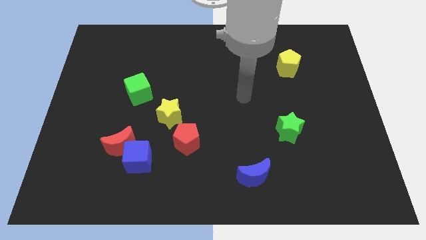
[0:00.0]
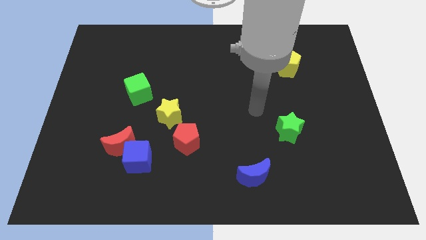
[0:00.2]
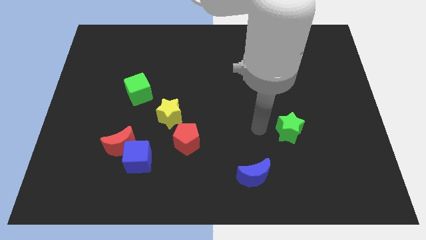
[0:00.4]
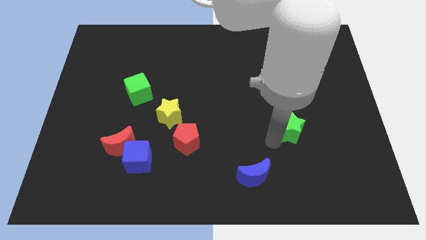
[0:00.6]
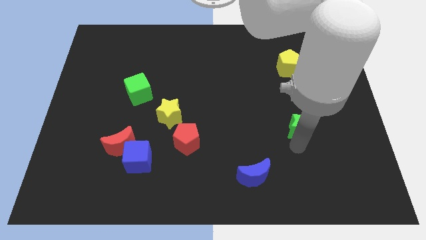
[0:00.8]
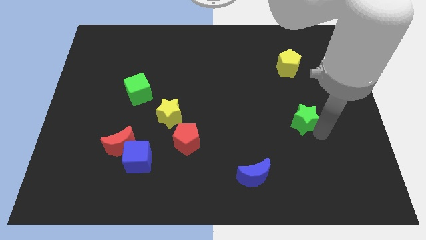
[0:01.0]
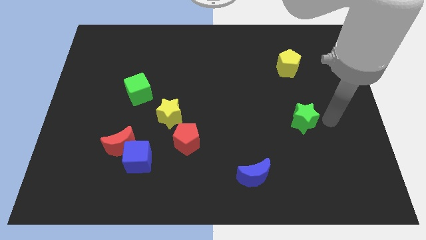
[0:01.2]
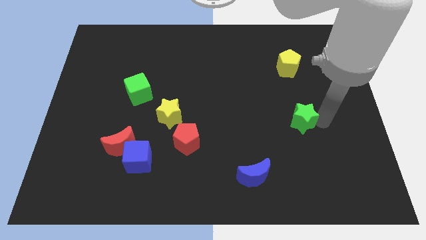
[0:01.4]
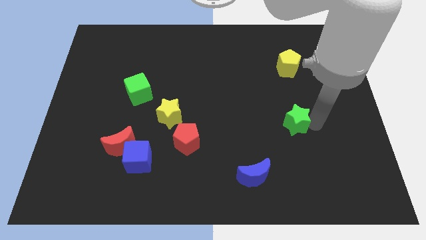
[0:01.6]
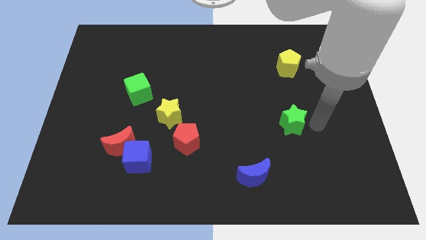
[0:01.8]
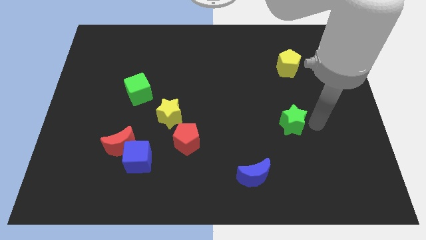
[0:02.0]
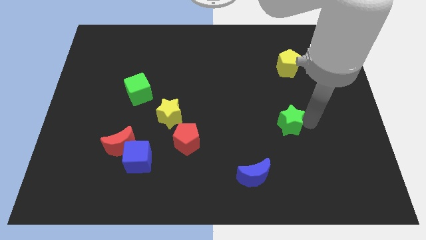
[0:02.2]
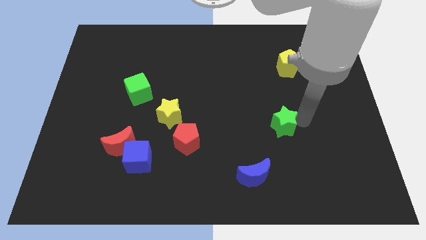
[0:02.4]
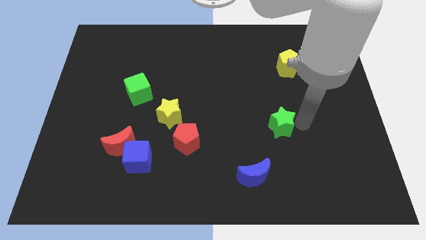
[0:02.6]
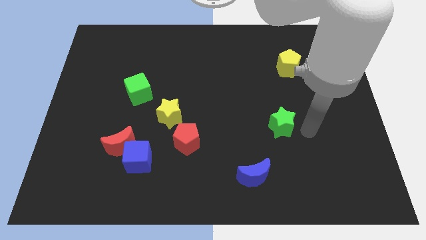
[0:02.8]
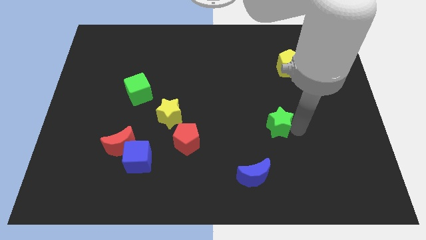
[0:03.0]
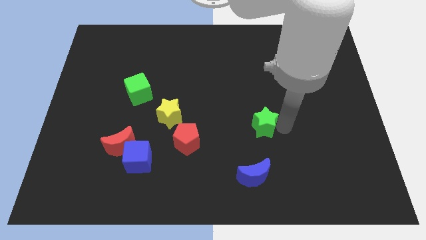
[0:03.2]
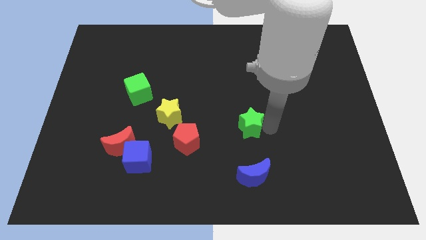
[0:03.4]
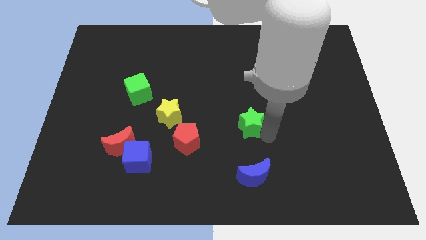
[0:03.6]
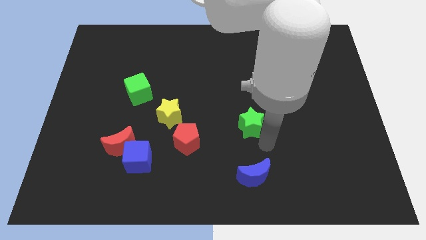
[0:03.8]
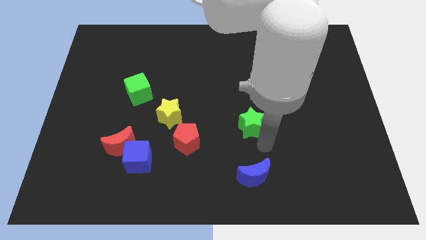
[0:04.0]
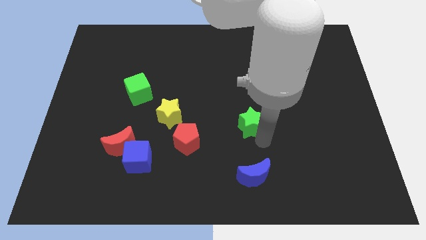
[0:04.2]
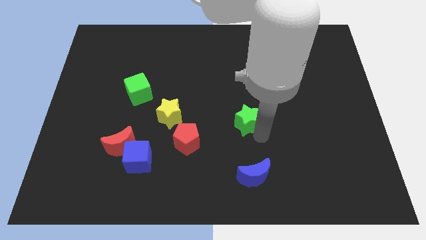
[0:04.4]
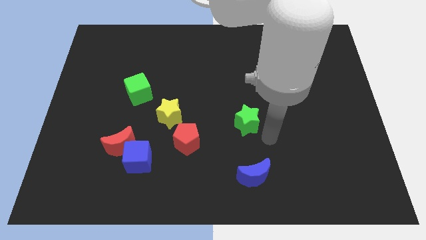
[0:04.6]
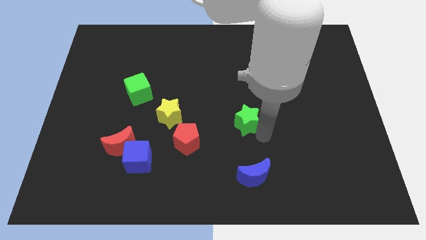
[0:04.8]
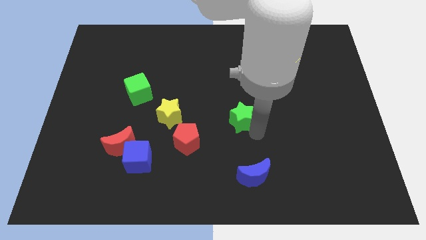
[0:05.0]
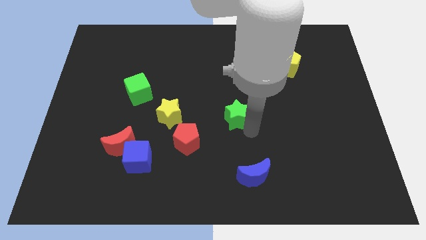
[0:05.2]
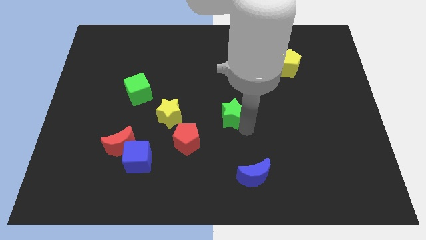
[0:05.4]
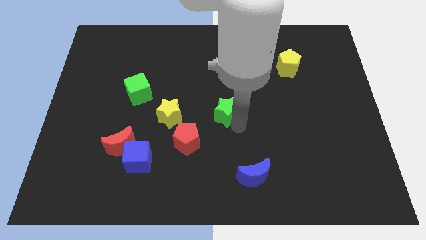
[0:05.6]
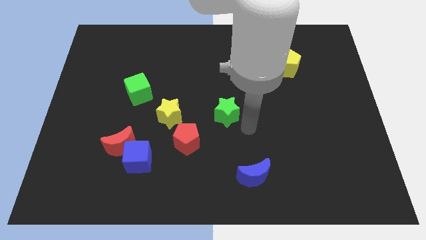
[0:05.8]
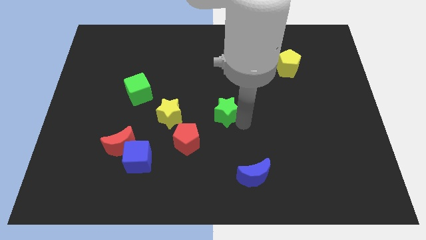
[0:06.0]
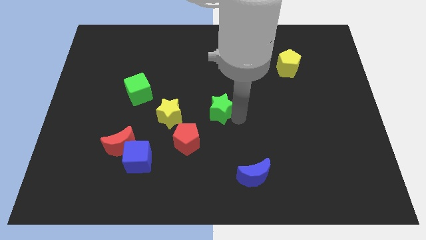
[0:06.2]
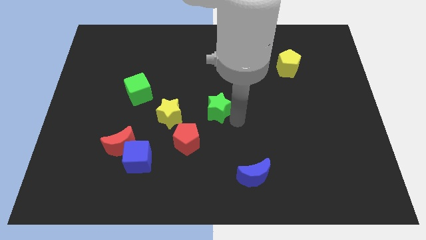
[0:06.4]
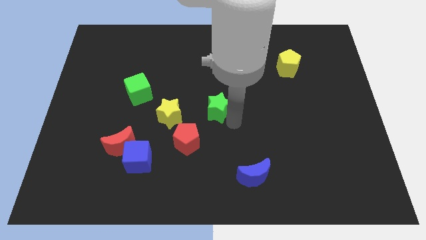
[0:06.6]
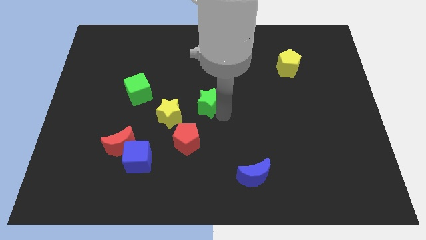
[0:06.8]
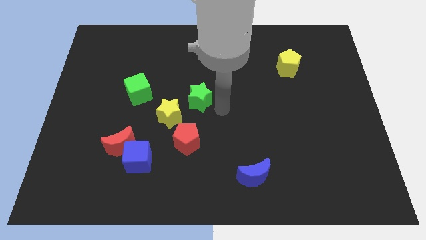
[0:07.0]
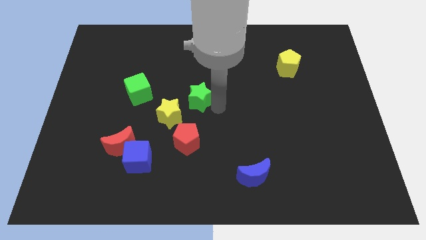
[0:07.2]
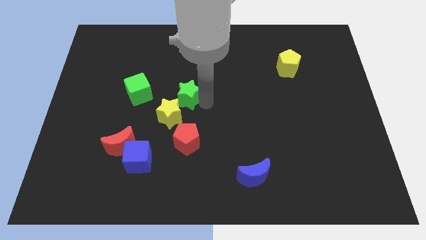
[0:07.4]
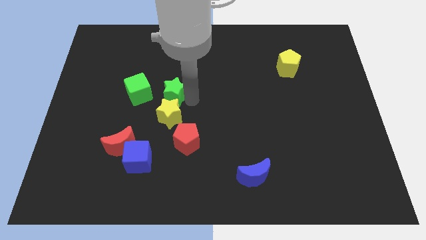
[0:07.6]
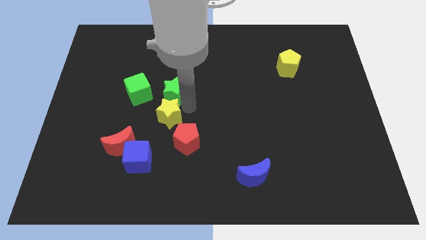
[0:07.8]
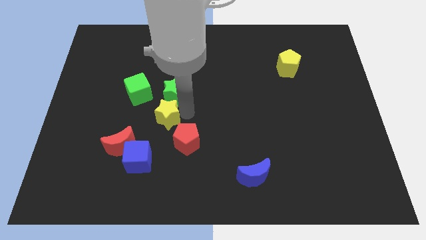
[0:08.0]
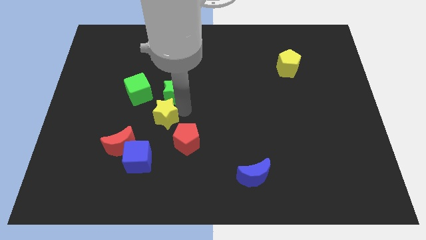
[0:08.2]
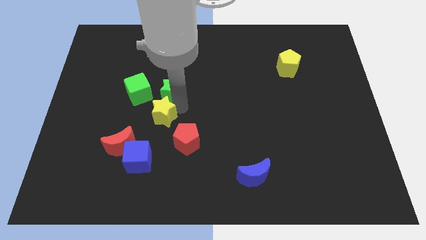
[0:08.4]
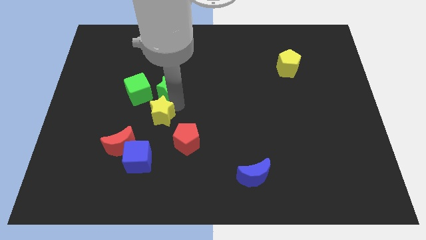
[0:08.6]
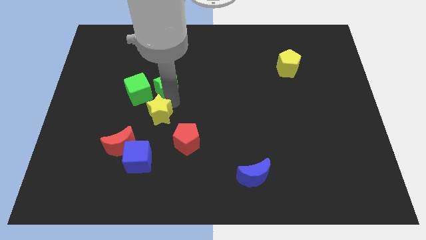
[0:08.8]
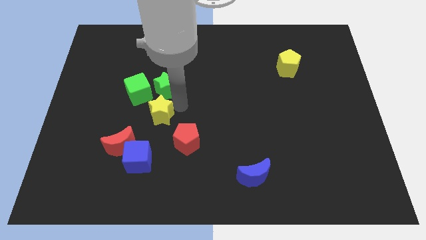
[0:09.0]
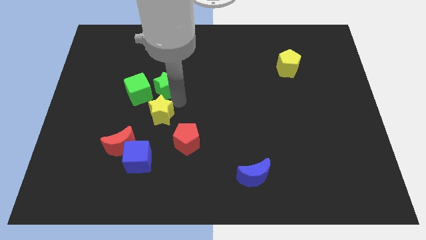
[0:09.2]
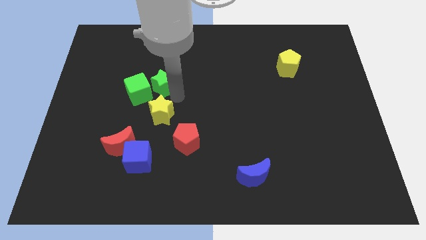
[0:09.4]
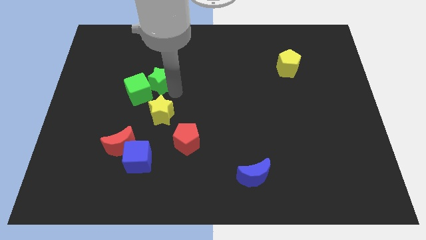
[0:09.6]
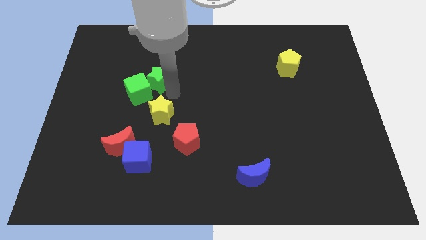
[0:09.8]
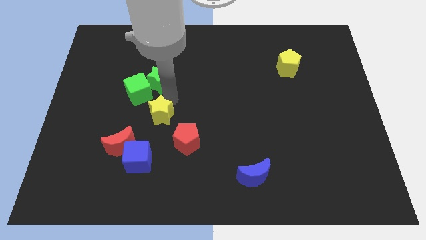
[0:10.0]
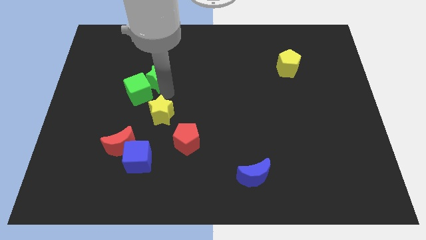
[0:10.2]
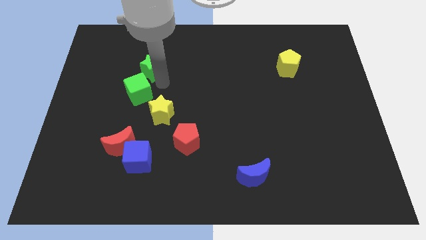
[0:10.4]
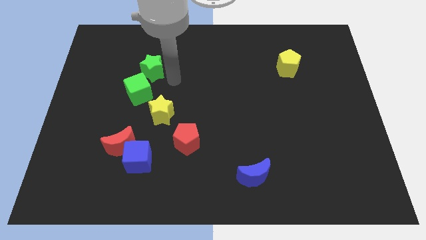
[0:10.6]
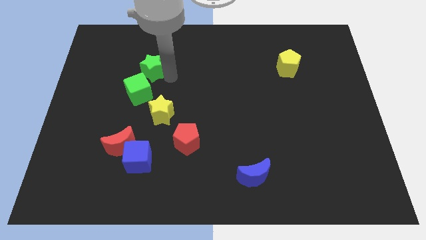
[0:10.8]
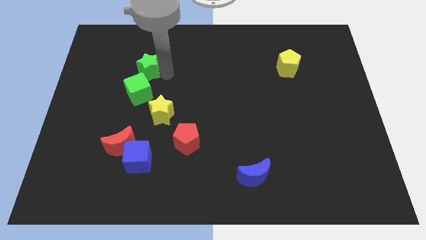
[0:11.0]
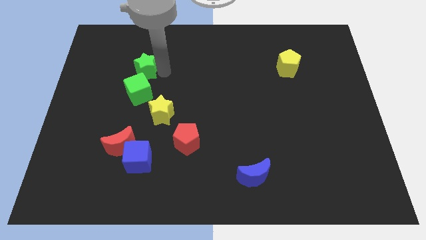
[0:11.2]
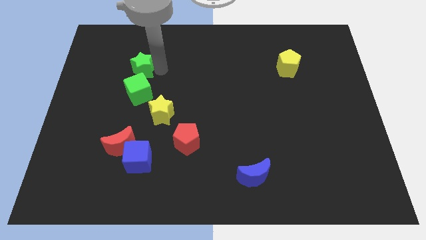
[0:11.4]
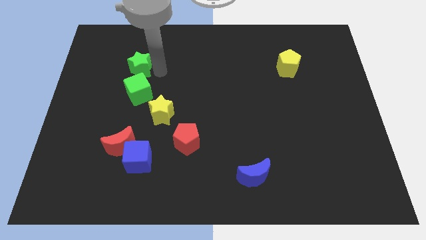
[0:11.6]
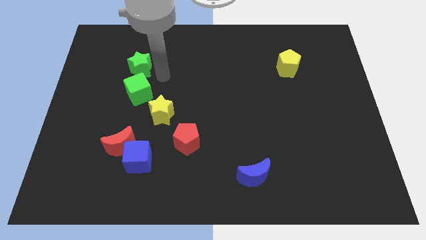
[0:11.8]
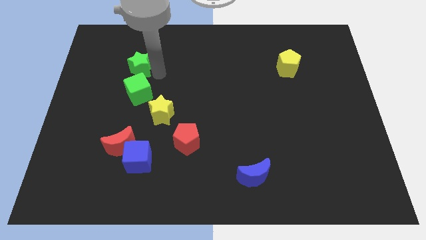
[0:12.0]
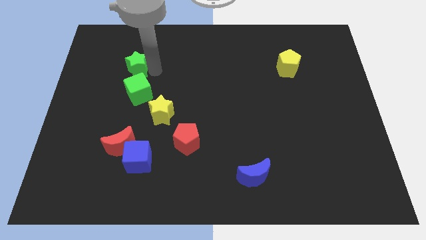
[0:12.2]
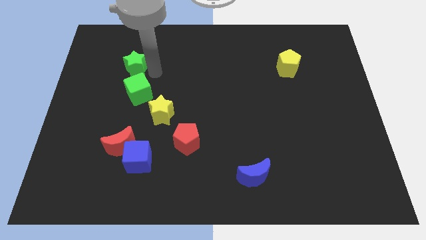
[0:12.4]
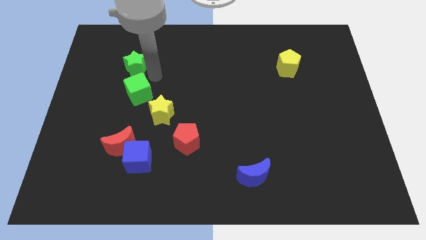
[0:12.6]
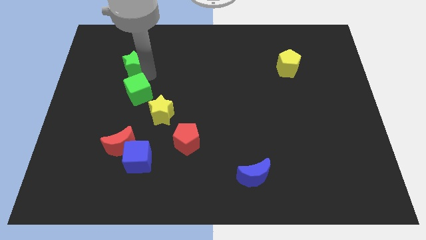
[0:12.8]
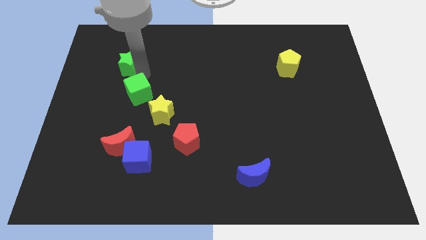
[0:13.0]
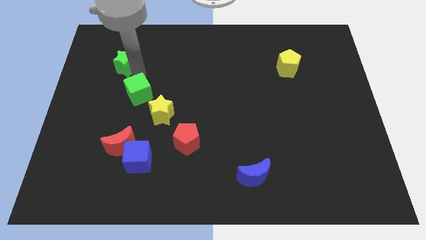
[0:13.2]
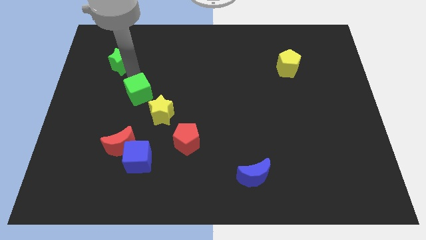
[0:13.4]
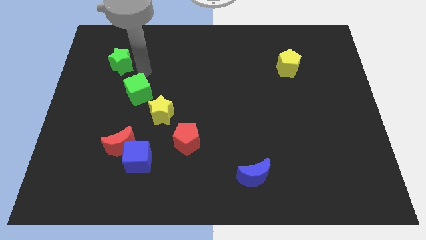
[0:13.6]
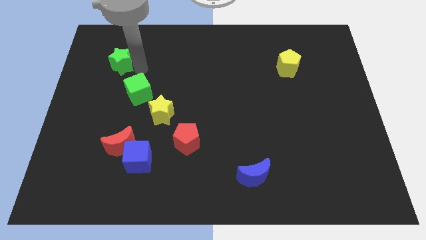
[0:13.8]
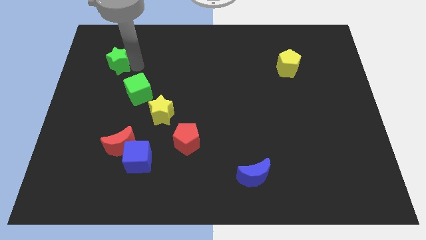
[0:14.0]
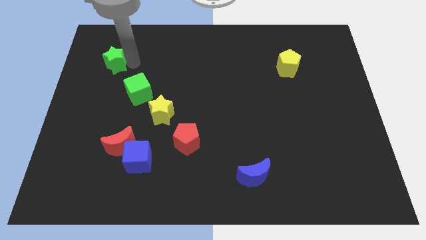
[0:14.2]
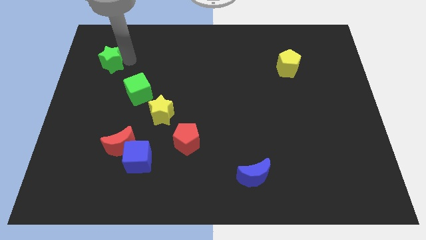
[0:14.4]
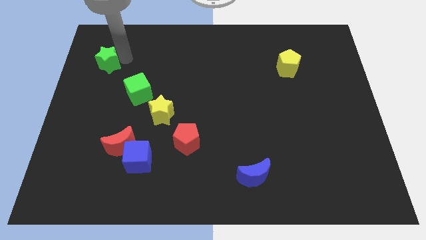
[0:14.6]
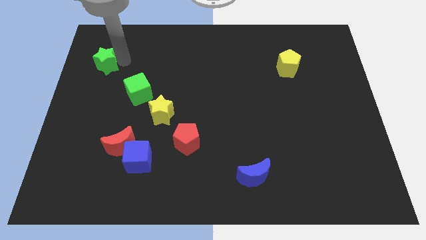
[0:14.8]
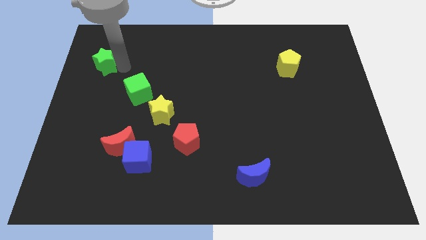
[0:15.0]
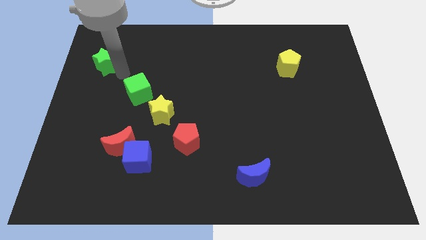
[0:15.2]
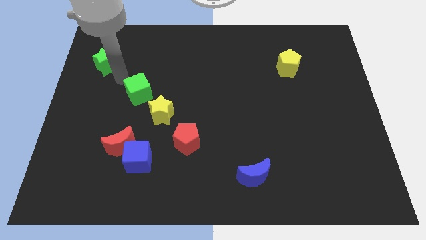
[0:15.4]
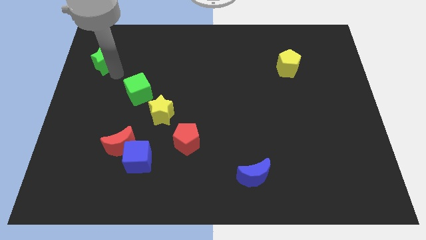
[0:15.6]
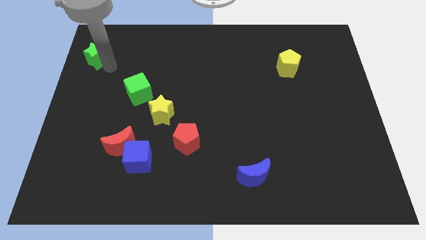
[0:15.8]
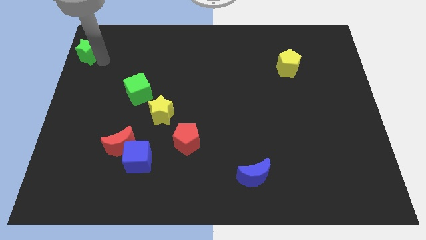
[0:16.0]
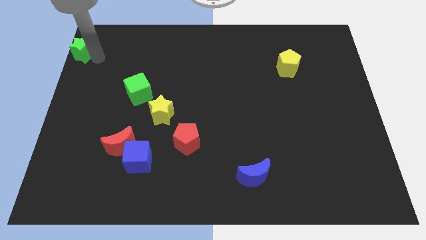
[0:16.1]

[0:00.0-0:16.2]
put the green star to the top left
